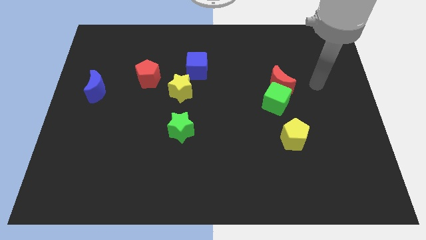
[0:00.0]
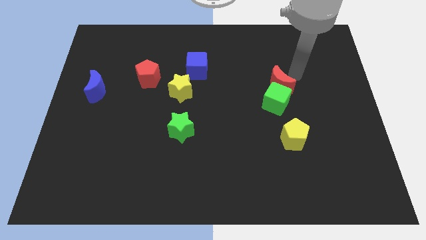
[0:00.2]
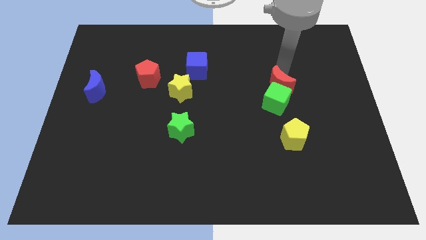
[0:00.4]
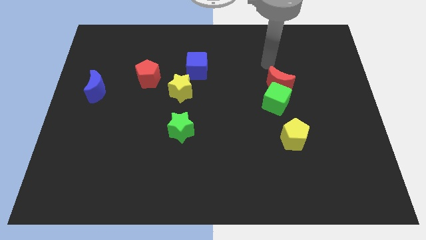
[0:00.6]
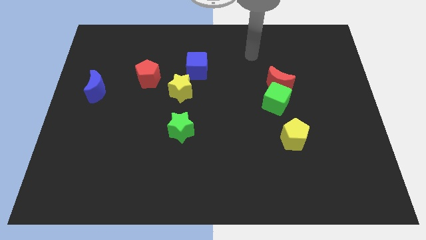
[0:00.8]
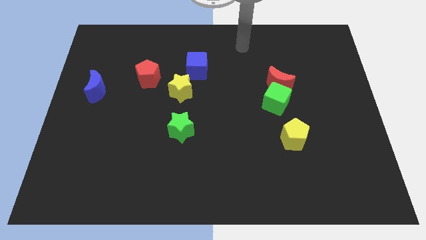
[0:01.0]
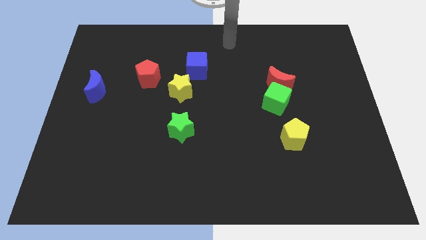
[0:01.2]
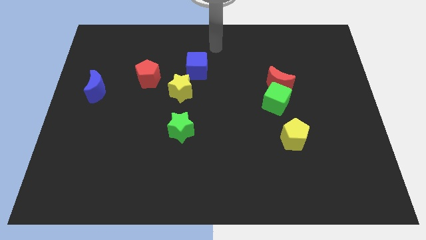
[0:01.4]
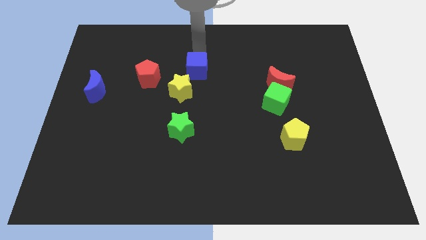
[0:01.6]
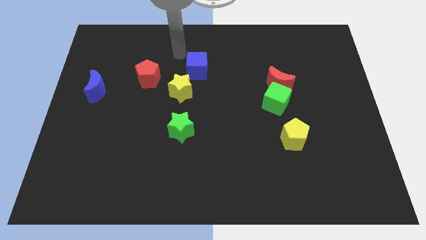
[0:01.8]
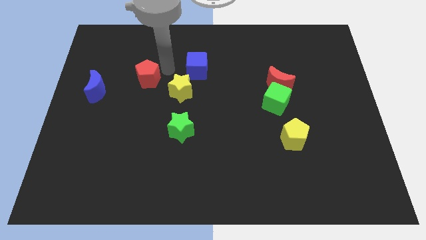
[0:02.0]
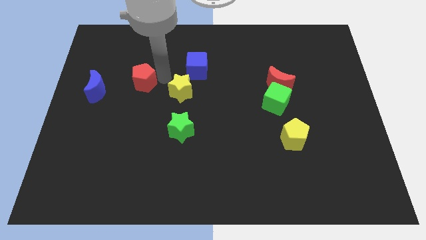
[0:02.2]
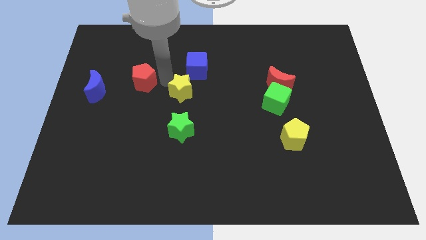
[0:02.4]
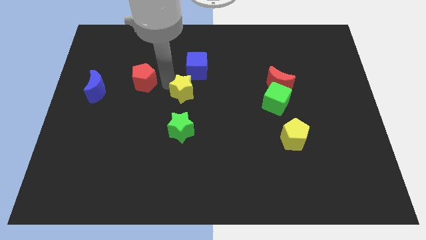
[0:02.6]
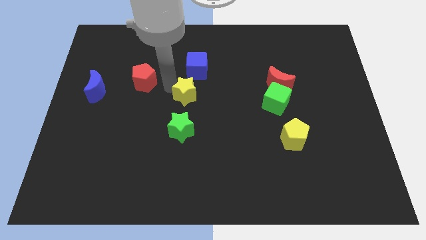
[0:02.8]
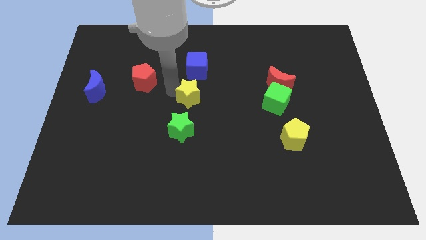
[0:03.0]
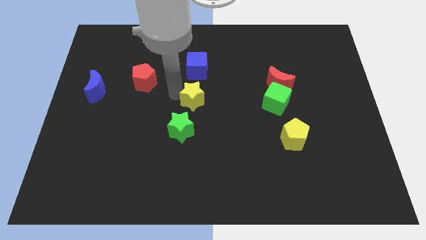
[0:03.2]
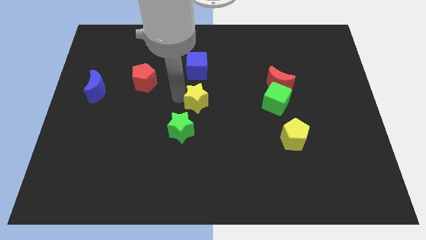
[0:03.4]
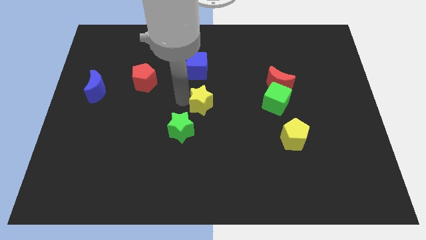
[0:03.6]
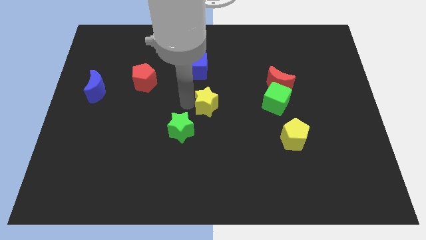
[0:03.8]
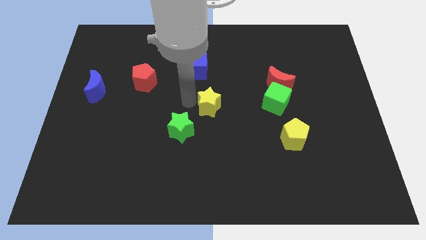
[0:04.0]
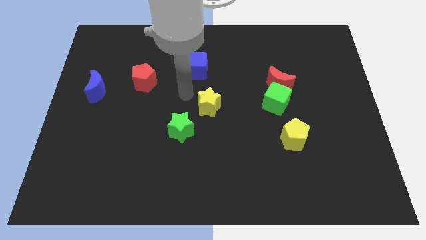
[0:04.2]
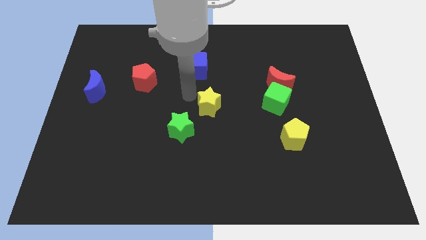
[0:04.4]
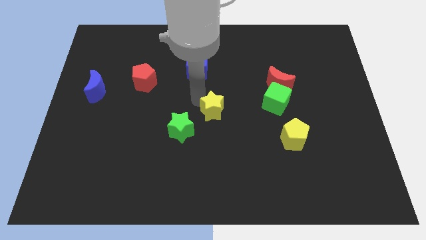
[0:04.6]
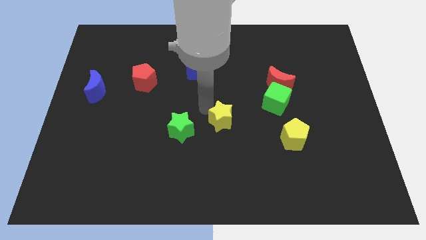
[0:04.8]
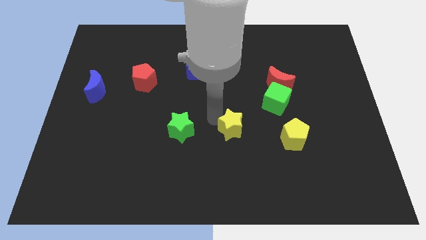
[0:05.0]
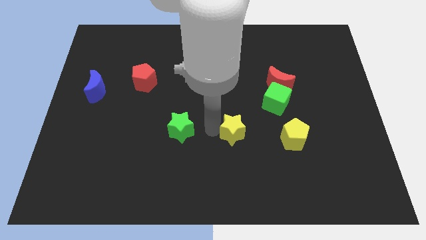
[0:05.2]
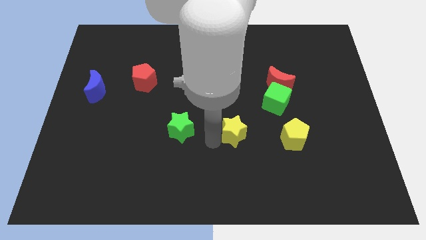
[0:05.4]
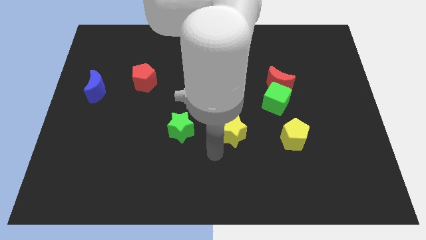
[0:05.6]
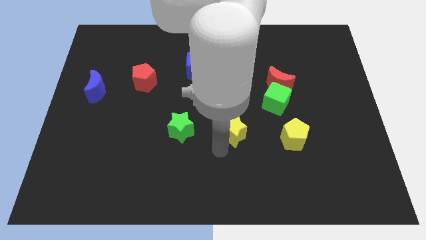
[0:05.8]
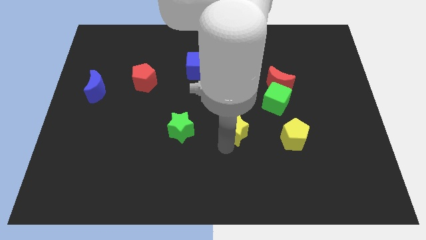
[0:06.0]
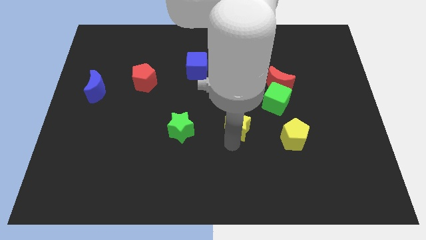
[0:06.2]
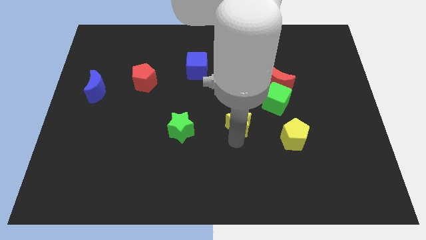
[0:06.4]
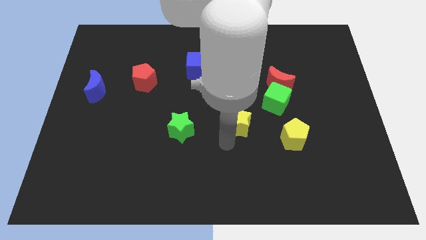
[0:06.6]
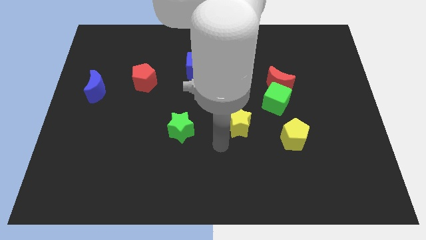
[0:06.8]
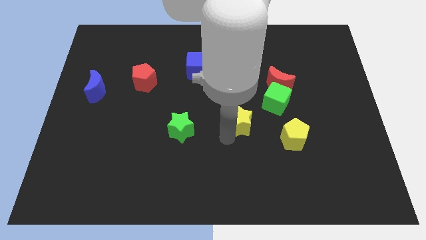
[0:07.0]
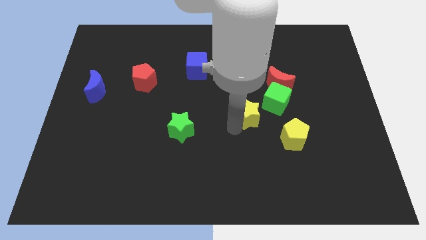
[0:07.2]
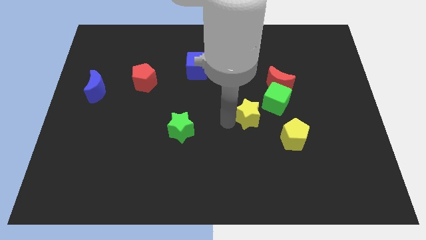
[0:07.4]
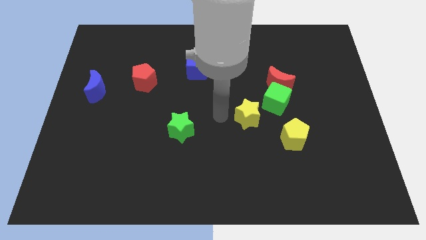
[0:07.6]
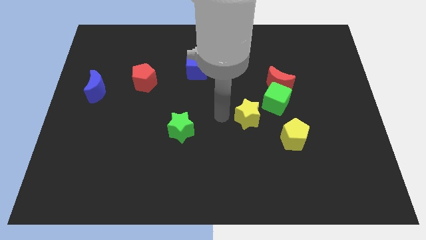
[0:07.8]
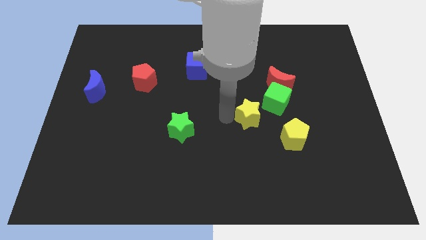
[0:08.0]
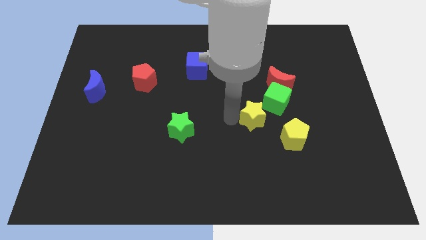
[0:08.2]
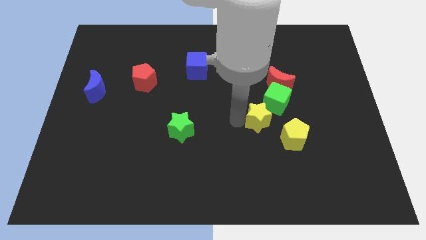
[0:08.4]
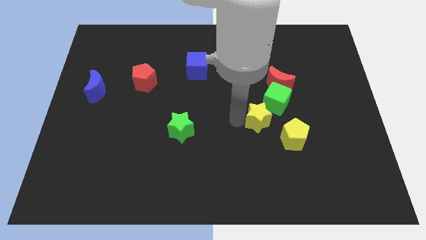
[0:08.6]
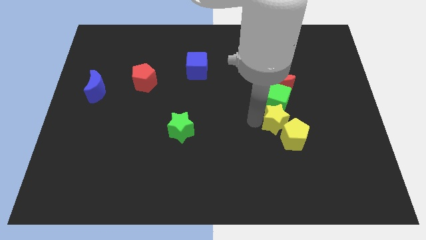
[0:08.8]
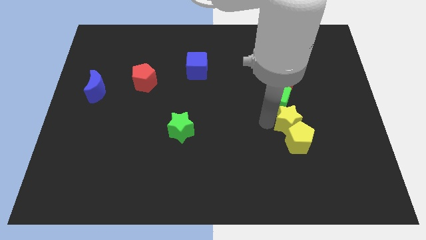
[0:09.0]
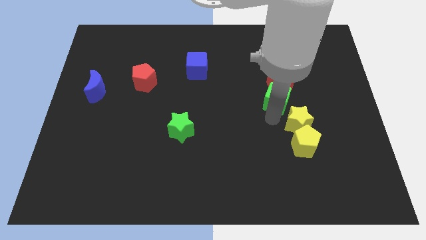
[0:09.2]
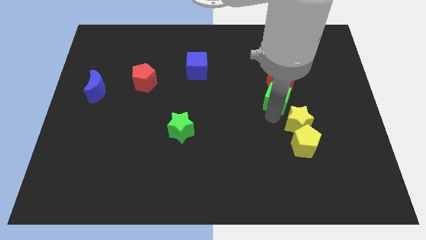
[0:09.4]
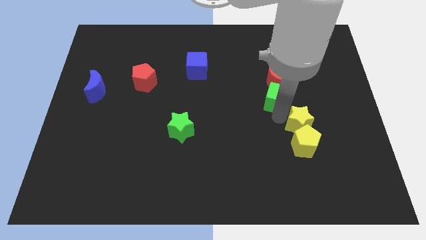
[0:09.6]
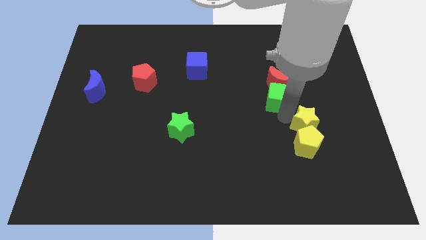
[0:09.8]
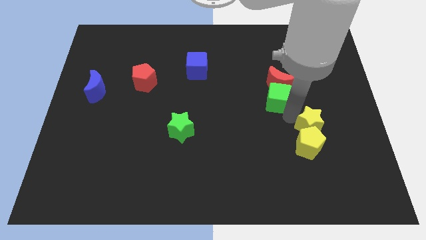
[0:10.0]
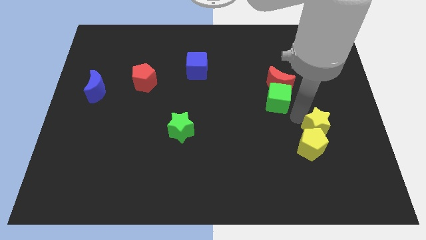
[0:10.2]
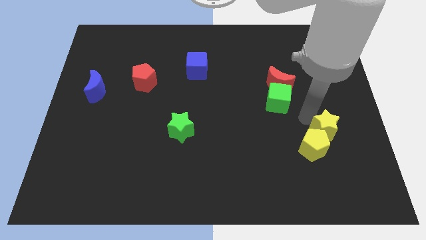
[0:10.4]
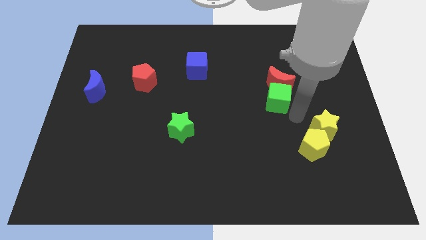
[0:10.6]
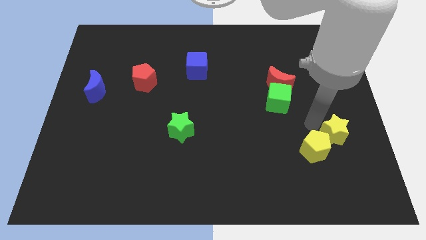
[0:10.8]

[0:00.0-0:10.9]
put the yellow star to the right of the yellow pentagon

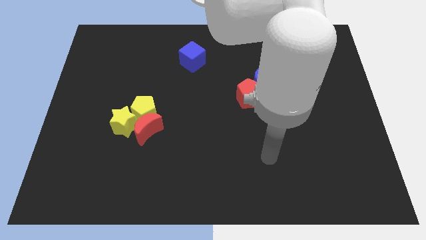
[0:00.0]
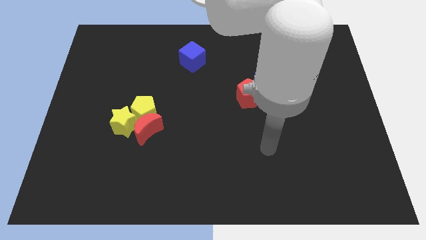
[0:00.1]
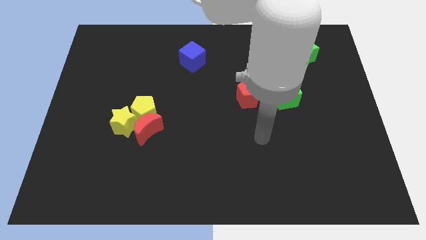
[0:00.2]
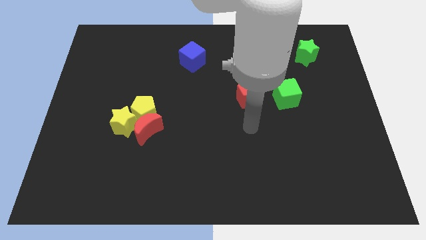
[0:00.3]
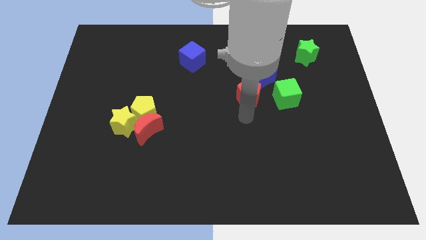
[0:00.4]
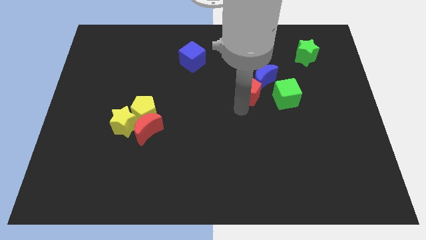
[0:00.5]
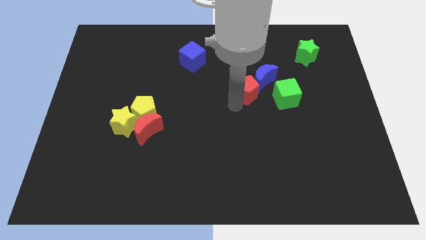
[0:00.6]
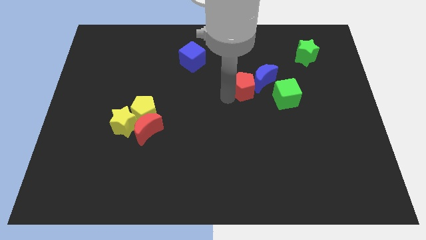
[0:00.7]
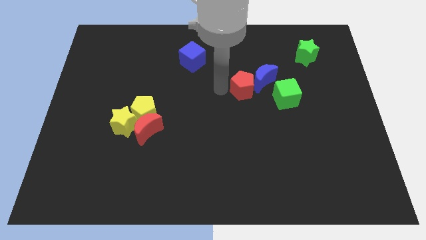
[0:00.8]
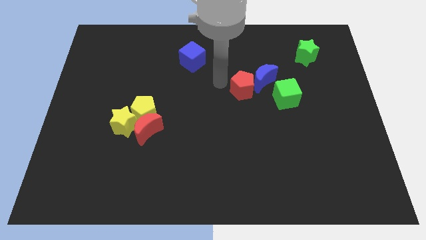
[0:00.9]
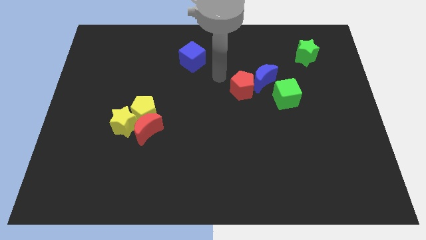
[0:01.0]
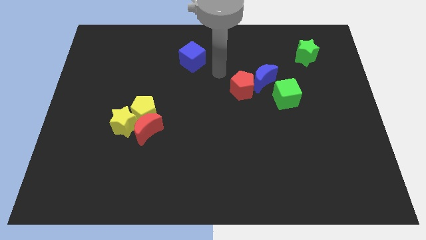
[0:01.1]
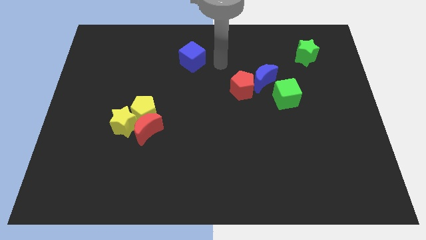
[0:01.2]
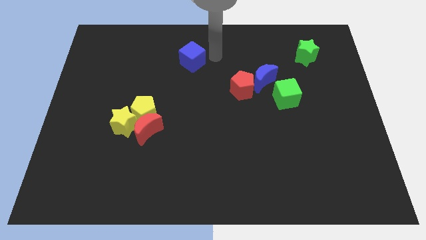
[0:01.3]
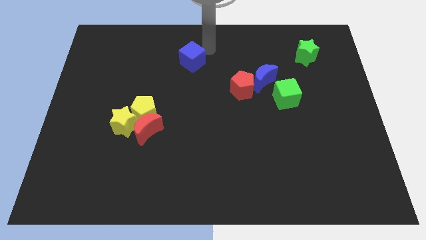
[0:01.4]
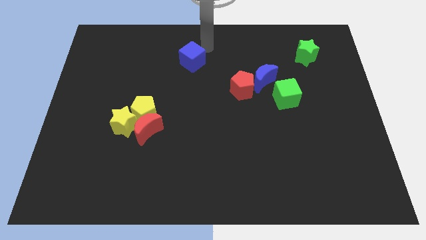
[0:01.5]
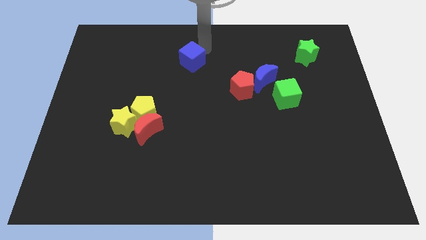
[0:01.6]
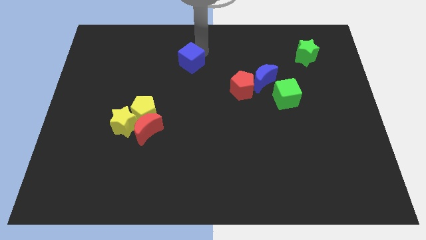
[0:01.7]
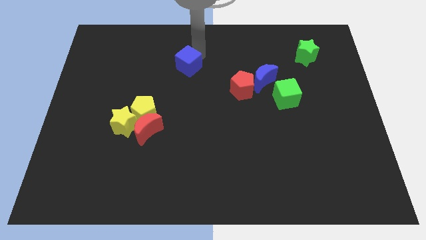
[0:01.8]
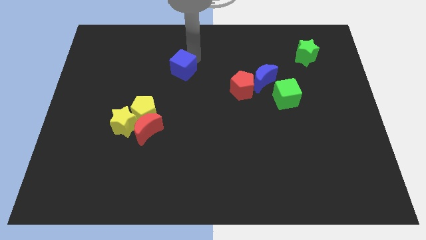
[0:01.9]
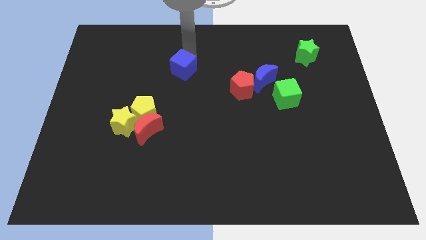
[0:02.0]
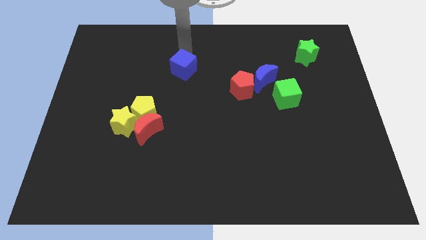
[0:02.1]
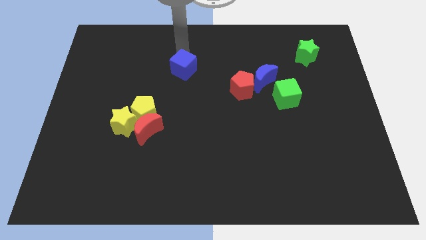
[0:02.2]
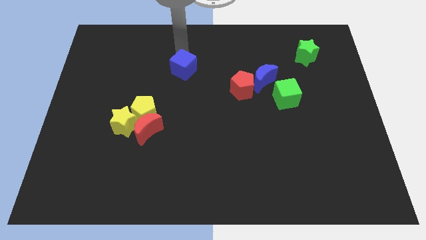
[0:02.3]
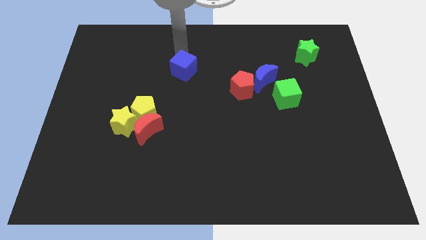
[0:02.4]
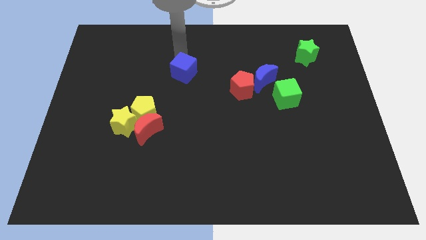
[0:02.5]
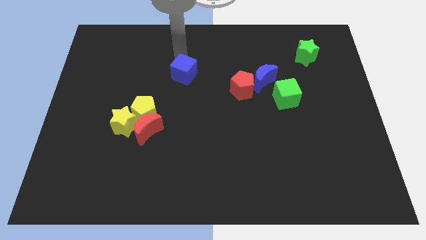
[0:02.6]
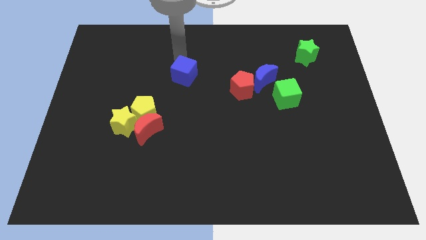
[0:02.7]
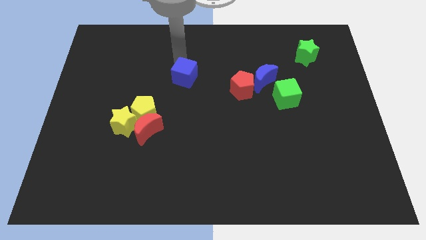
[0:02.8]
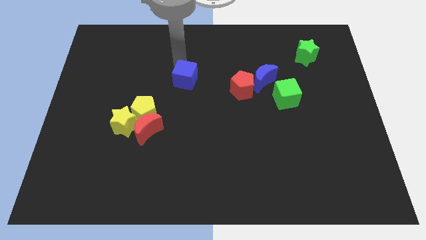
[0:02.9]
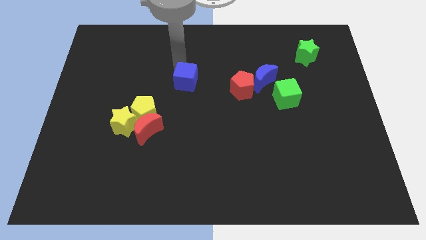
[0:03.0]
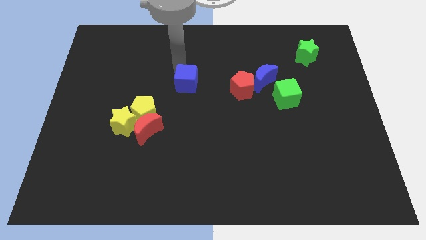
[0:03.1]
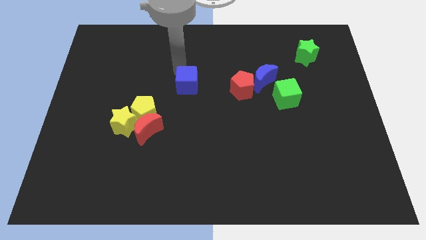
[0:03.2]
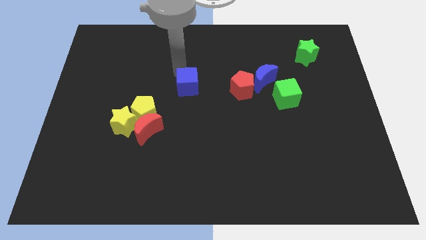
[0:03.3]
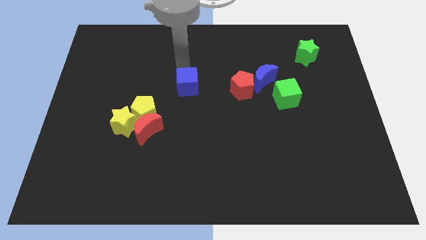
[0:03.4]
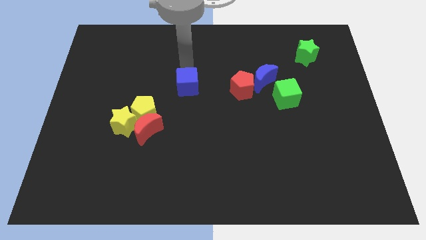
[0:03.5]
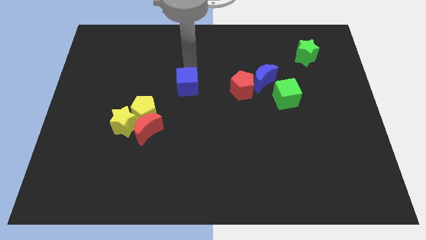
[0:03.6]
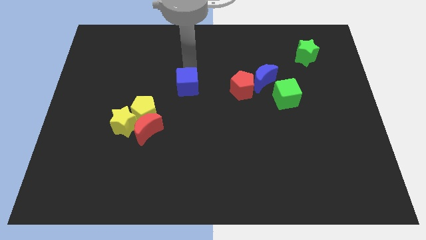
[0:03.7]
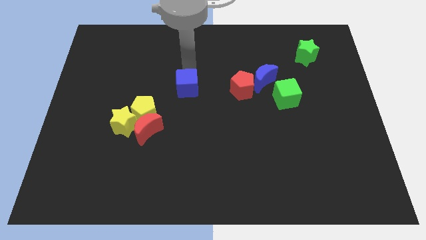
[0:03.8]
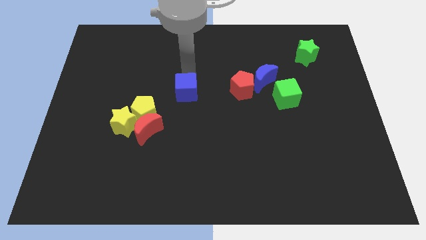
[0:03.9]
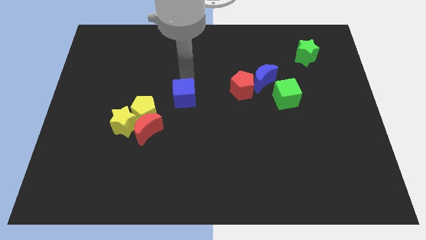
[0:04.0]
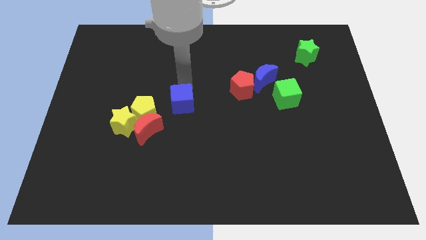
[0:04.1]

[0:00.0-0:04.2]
push the blue cube just right of the yellow pentagon
